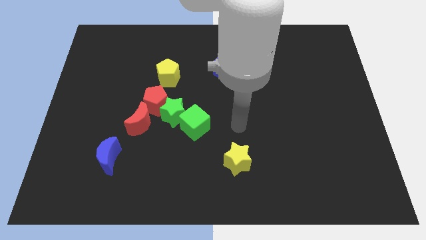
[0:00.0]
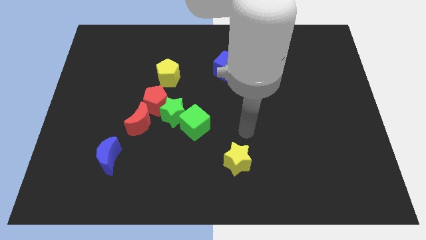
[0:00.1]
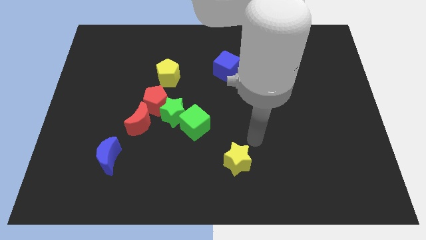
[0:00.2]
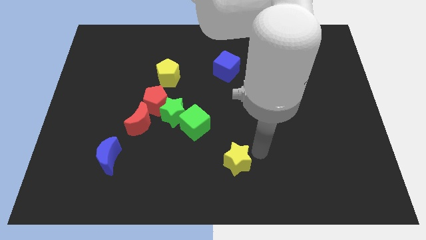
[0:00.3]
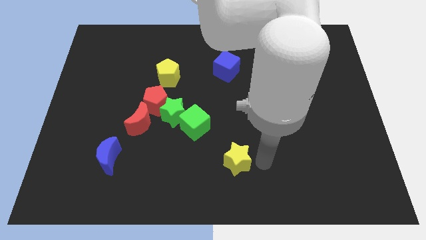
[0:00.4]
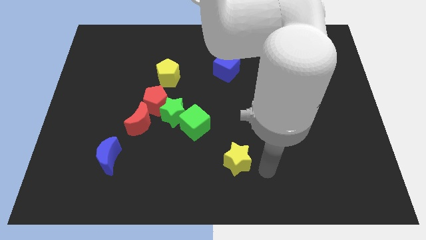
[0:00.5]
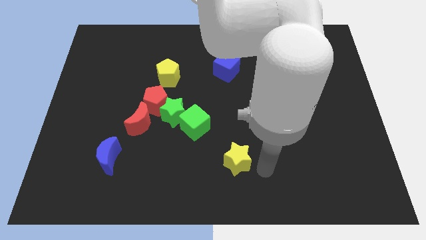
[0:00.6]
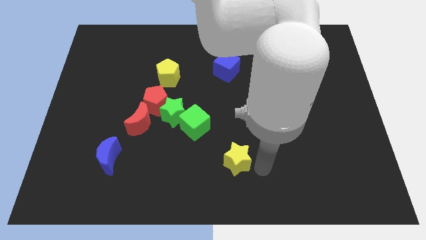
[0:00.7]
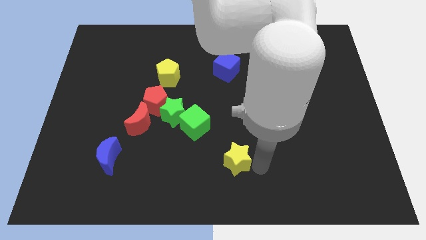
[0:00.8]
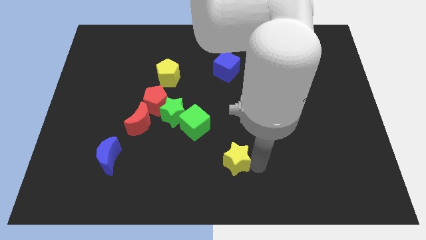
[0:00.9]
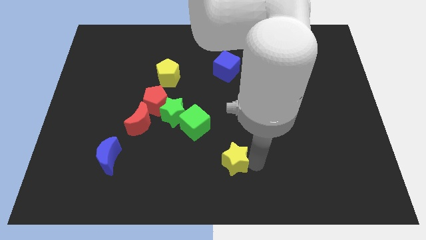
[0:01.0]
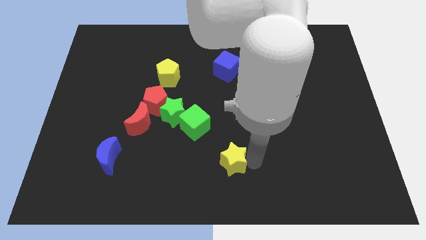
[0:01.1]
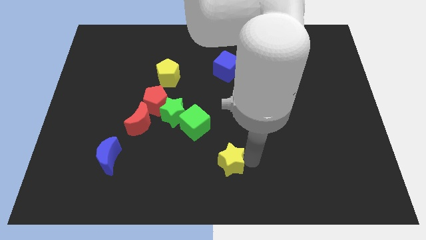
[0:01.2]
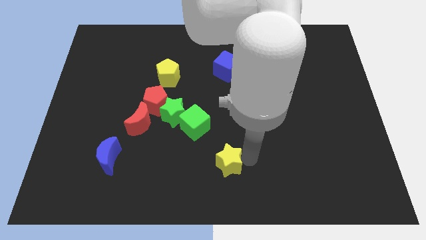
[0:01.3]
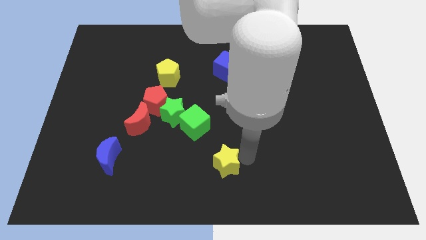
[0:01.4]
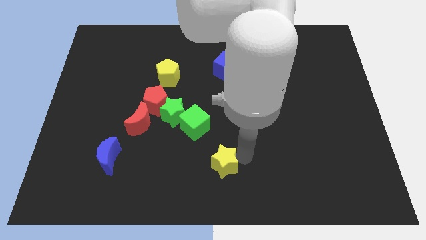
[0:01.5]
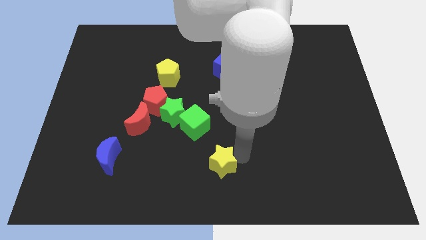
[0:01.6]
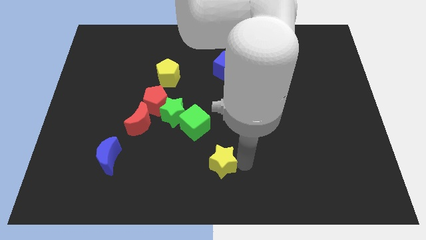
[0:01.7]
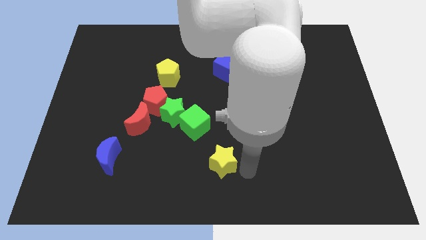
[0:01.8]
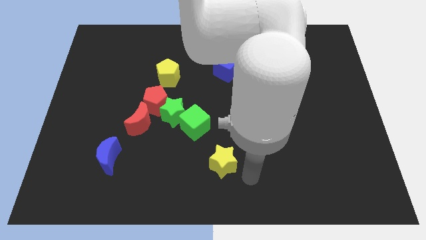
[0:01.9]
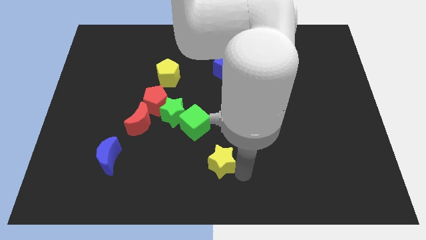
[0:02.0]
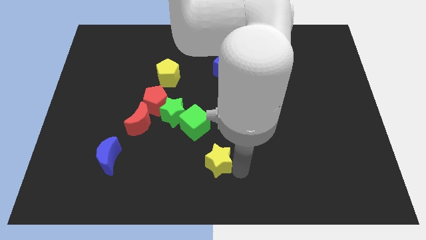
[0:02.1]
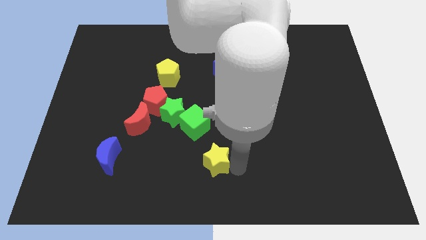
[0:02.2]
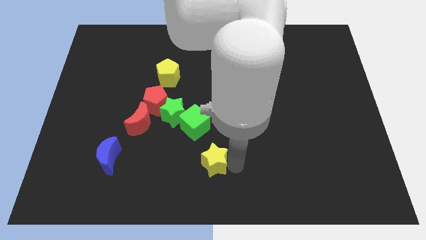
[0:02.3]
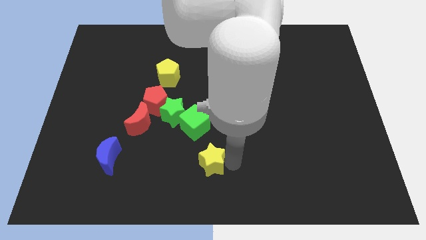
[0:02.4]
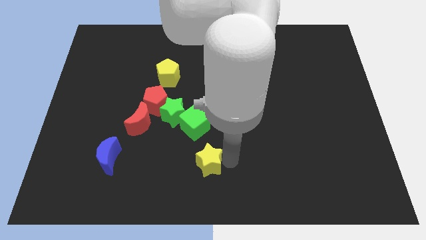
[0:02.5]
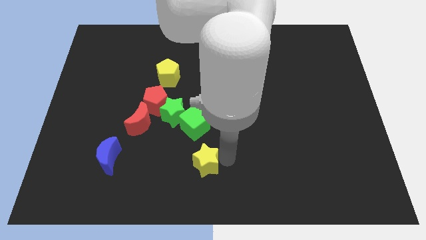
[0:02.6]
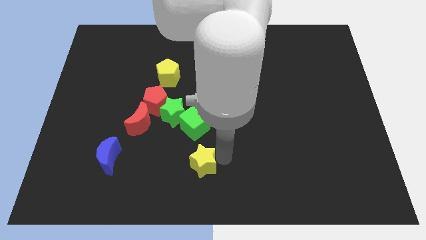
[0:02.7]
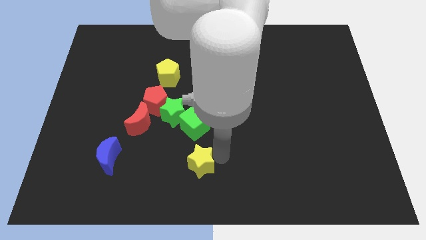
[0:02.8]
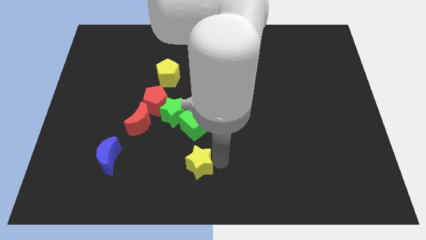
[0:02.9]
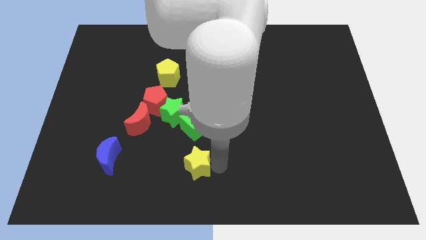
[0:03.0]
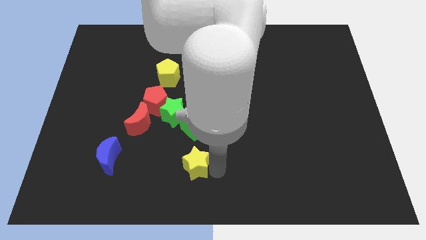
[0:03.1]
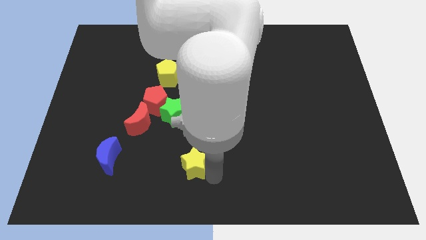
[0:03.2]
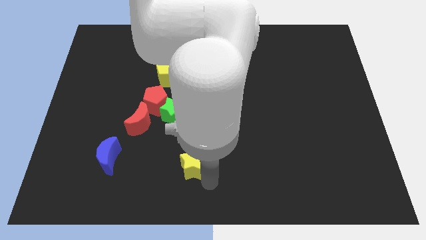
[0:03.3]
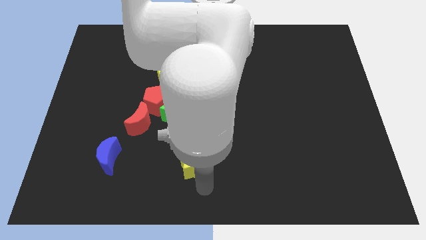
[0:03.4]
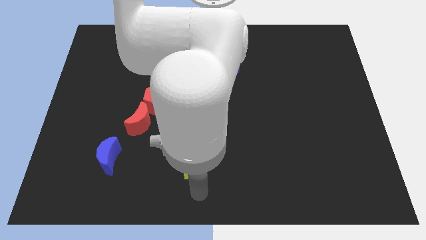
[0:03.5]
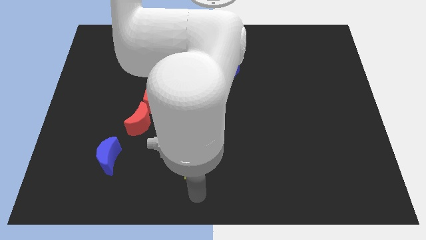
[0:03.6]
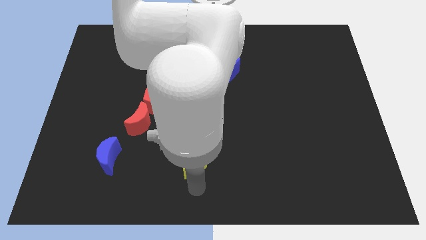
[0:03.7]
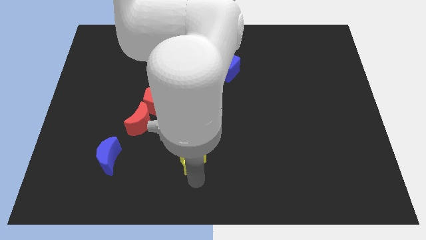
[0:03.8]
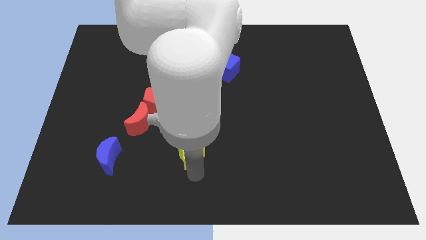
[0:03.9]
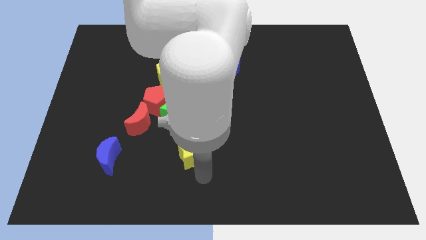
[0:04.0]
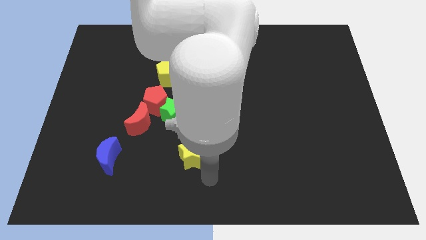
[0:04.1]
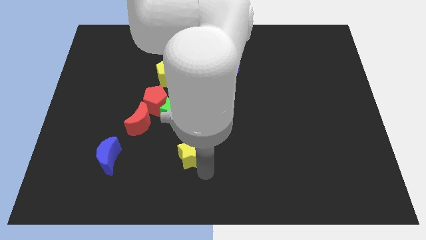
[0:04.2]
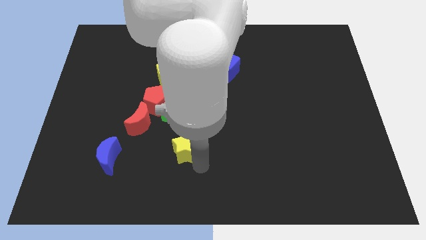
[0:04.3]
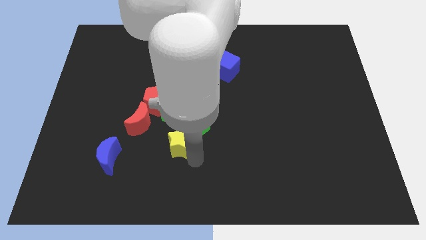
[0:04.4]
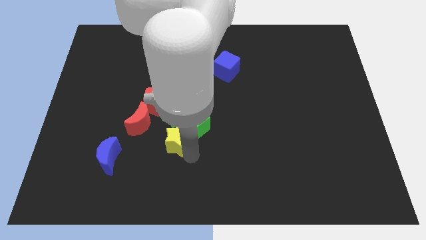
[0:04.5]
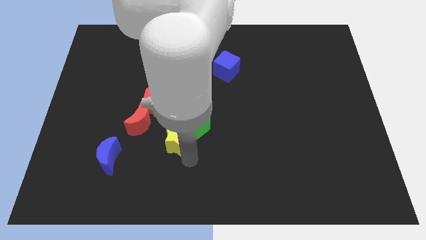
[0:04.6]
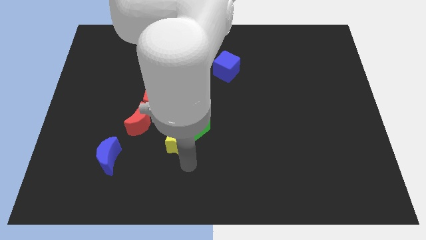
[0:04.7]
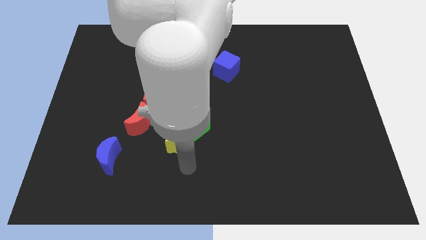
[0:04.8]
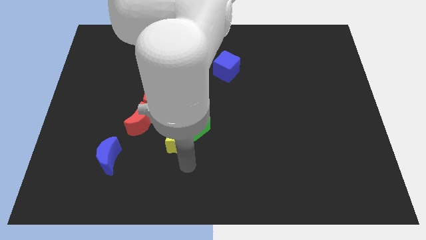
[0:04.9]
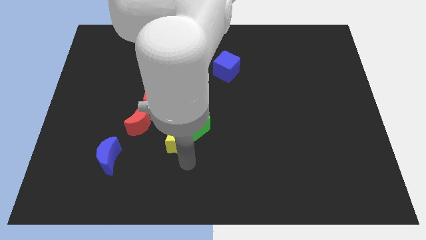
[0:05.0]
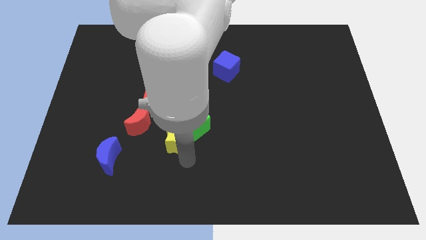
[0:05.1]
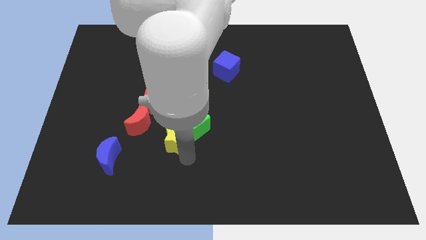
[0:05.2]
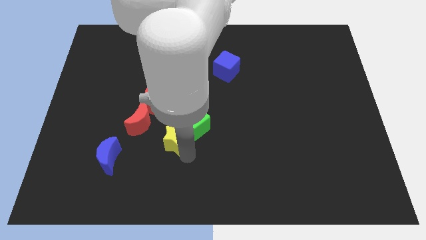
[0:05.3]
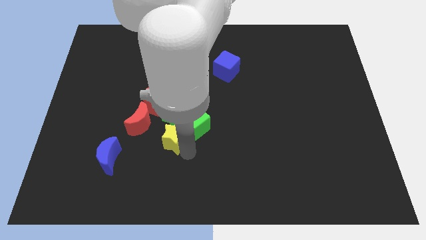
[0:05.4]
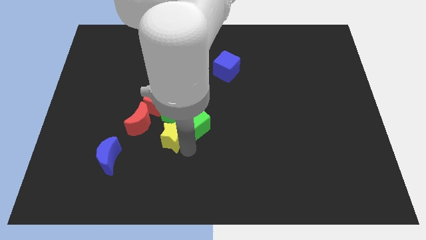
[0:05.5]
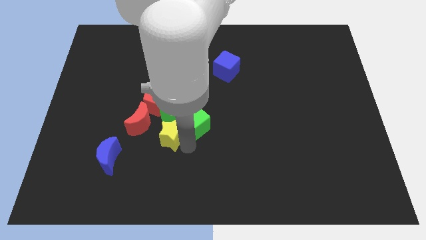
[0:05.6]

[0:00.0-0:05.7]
put the yellow star towards the green star

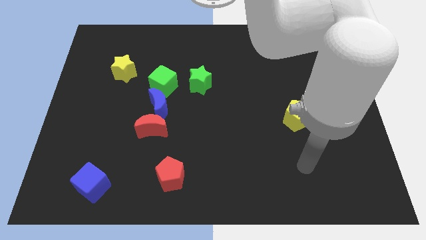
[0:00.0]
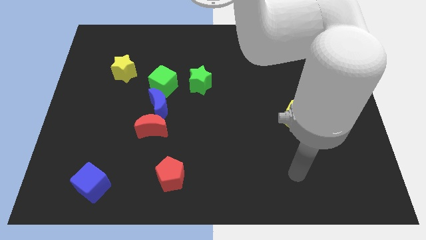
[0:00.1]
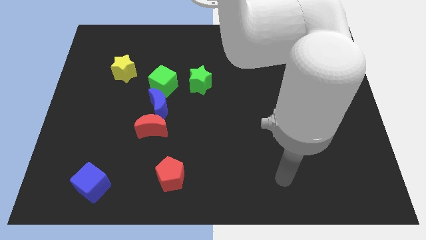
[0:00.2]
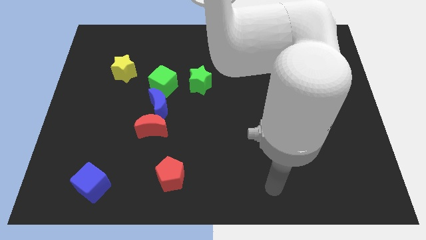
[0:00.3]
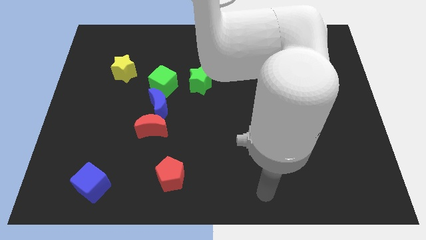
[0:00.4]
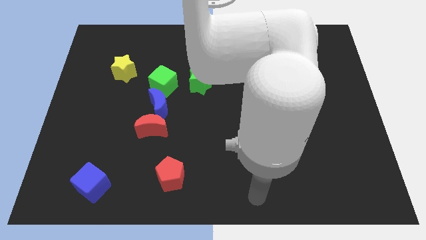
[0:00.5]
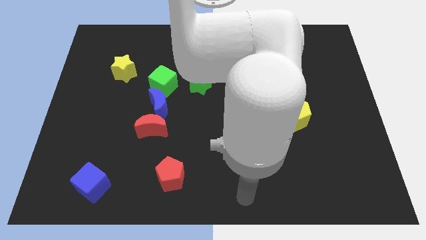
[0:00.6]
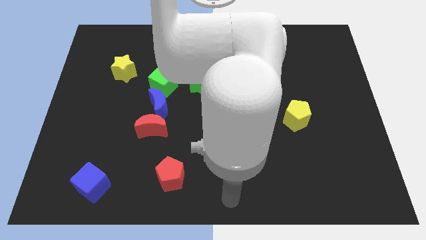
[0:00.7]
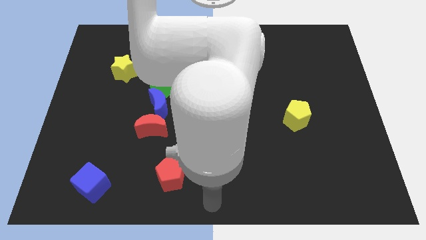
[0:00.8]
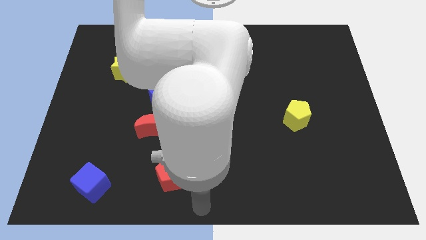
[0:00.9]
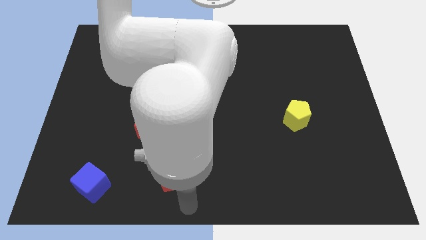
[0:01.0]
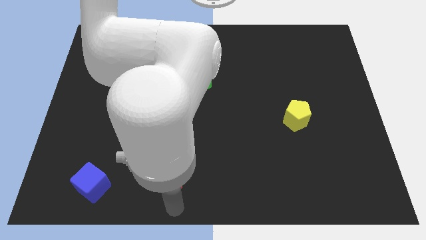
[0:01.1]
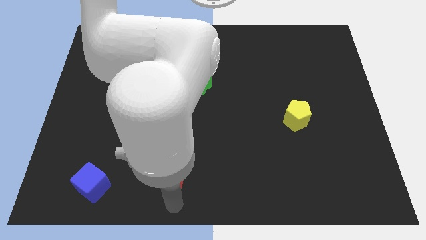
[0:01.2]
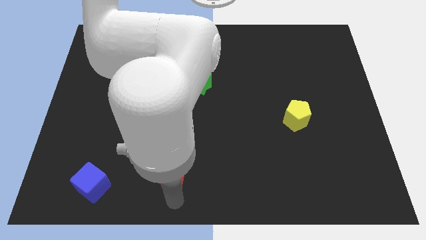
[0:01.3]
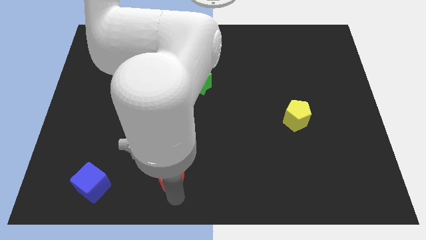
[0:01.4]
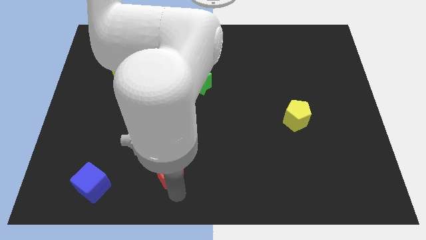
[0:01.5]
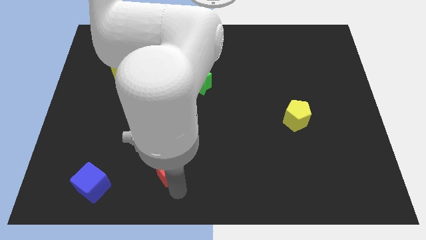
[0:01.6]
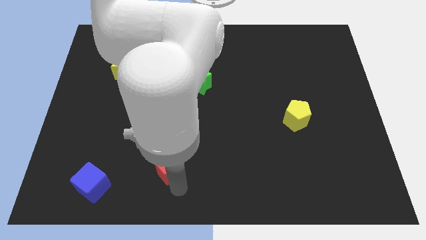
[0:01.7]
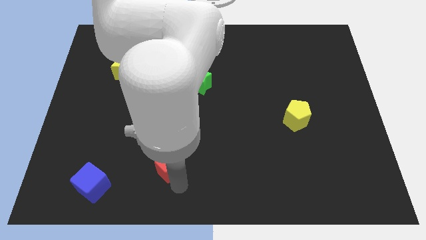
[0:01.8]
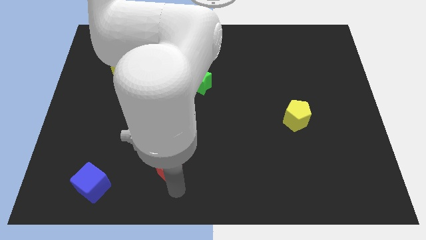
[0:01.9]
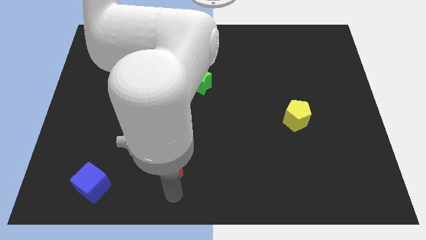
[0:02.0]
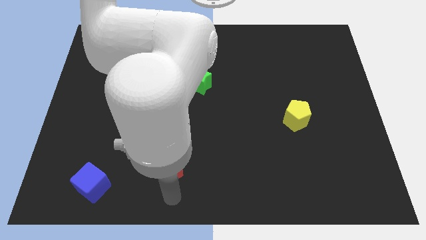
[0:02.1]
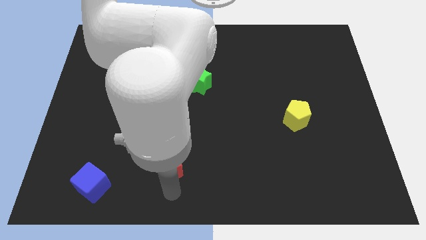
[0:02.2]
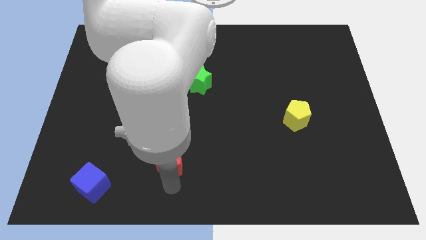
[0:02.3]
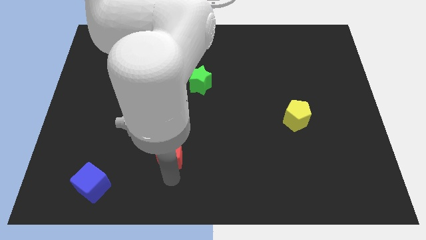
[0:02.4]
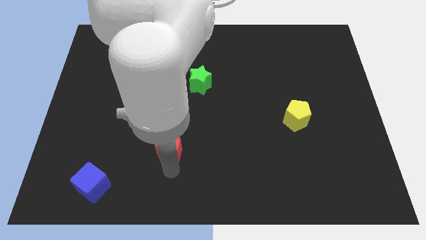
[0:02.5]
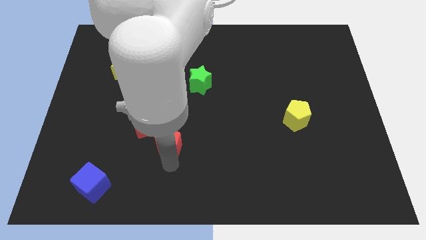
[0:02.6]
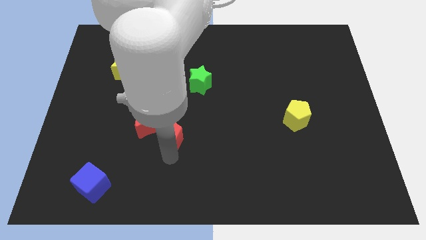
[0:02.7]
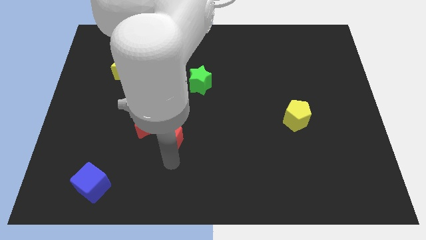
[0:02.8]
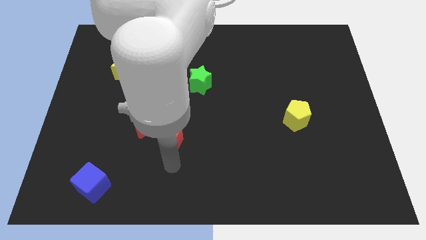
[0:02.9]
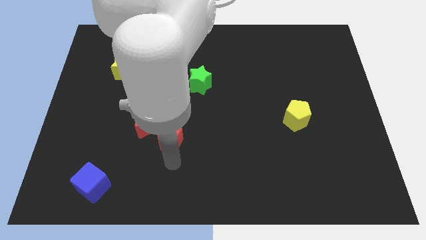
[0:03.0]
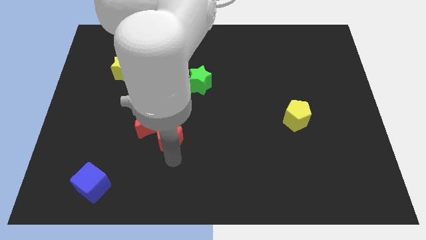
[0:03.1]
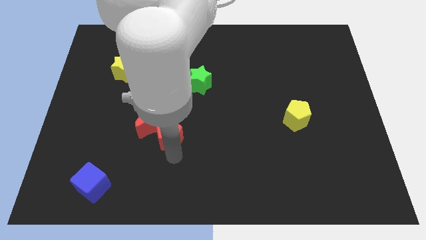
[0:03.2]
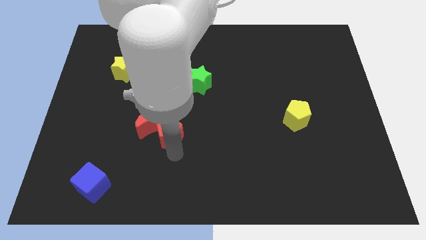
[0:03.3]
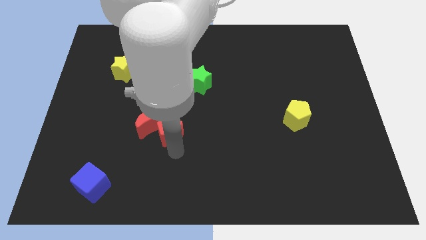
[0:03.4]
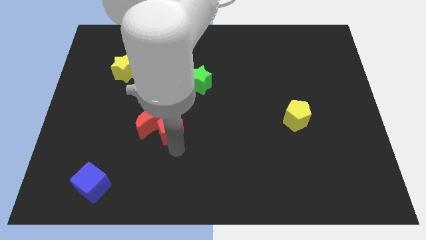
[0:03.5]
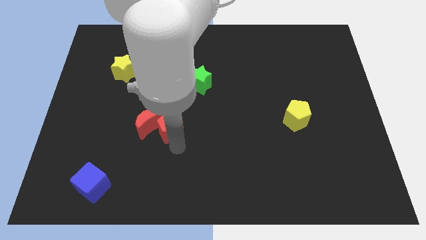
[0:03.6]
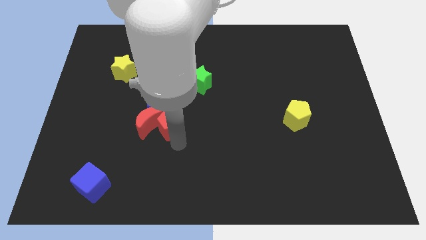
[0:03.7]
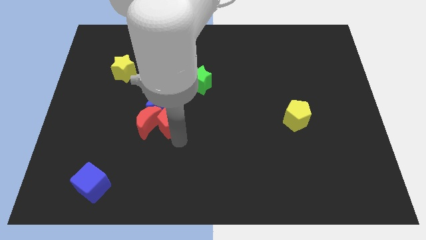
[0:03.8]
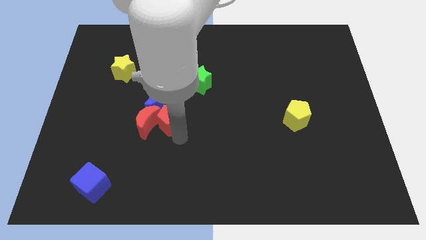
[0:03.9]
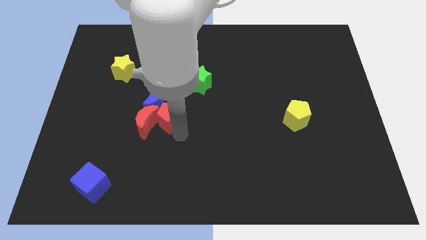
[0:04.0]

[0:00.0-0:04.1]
put the red pentagon close to the blue moon
